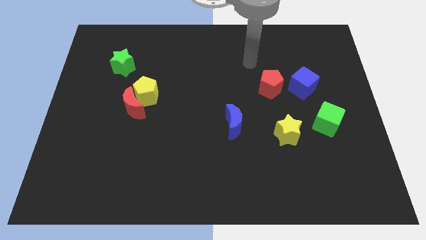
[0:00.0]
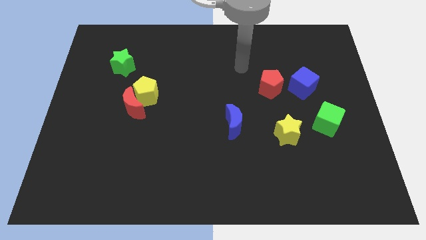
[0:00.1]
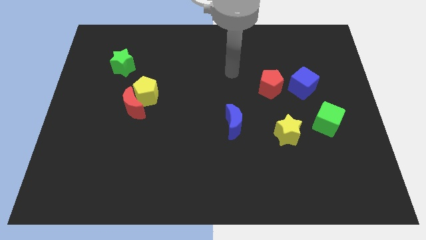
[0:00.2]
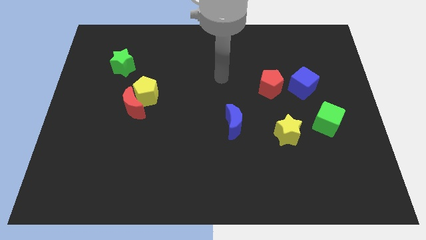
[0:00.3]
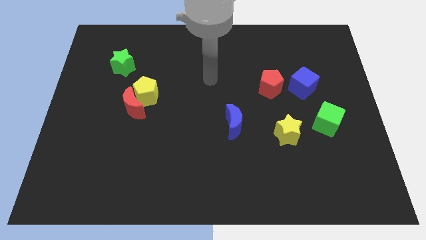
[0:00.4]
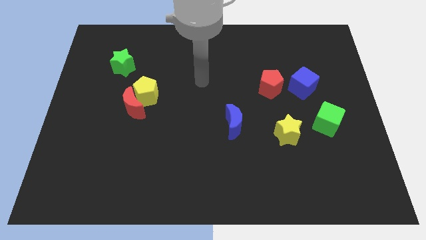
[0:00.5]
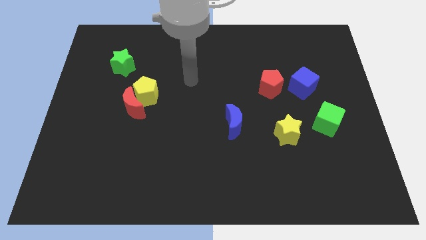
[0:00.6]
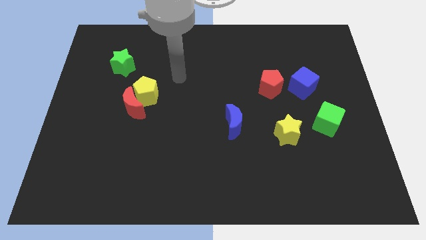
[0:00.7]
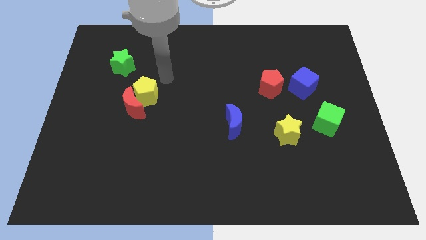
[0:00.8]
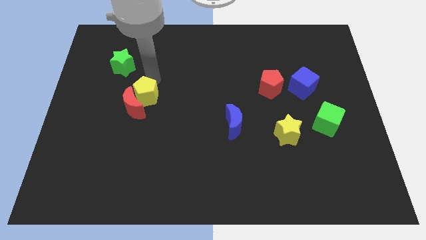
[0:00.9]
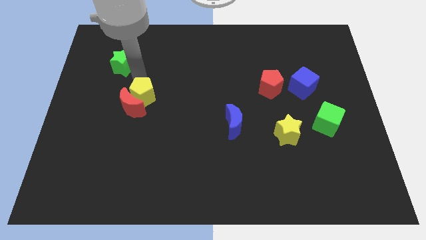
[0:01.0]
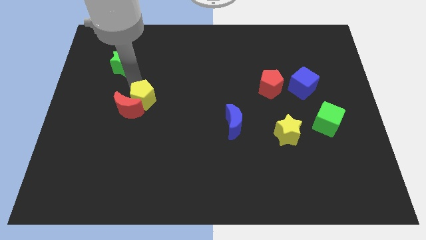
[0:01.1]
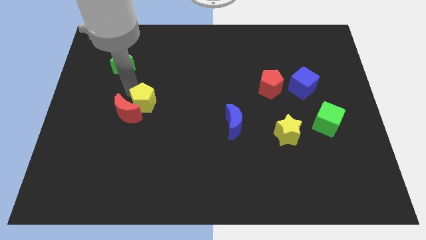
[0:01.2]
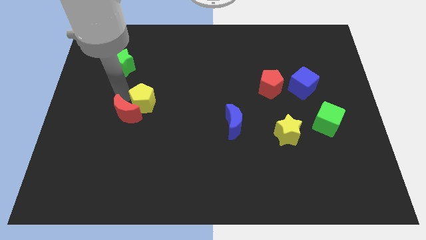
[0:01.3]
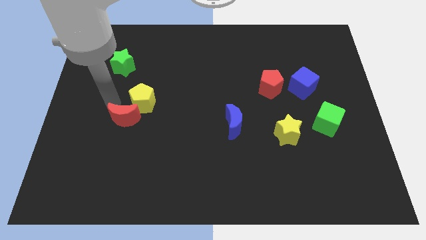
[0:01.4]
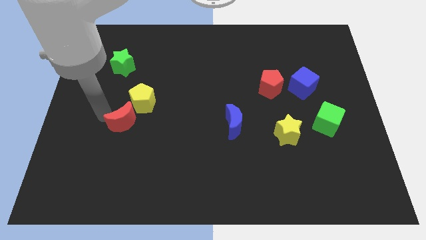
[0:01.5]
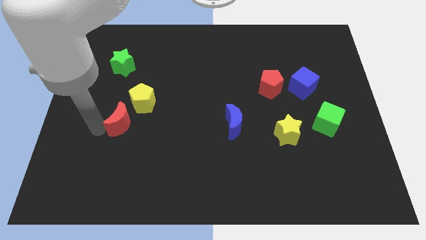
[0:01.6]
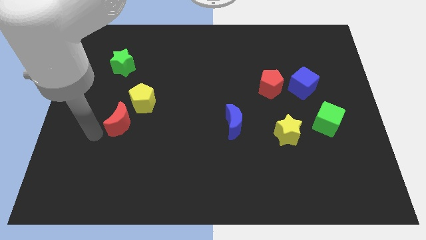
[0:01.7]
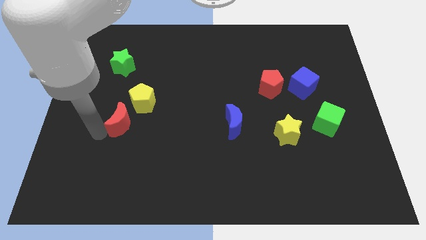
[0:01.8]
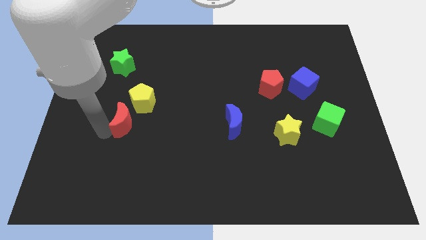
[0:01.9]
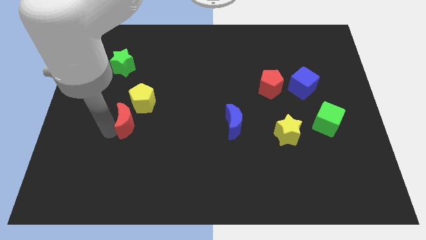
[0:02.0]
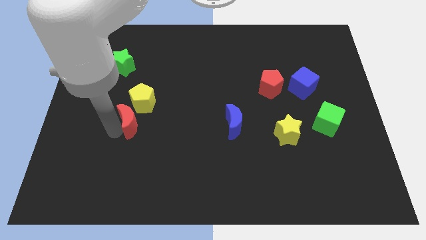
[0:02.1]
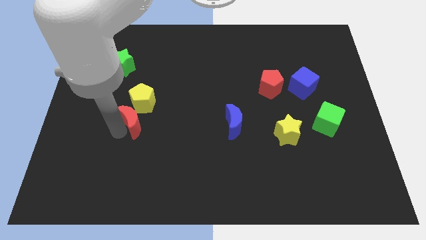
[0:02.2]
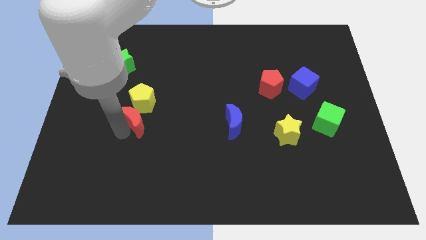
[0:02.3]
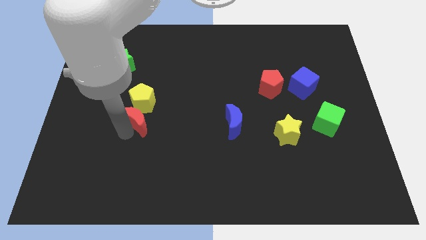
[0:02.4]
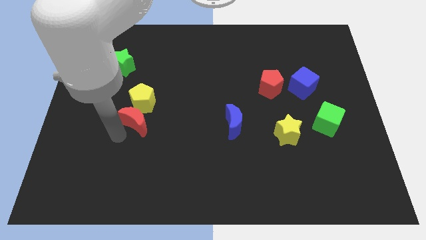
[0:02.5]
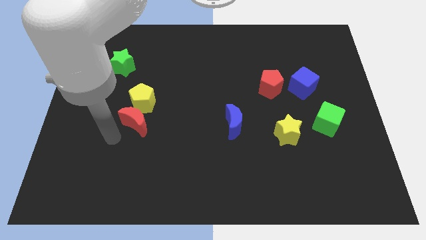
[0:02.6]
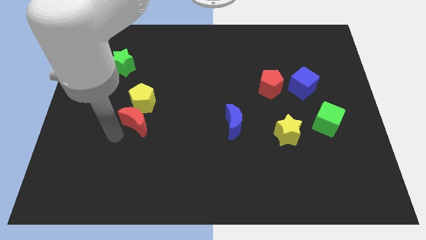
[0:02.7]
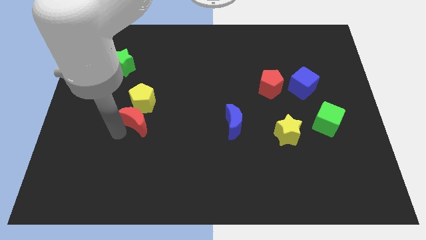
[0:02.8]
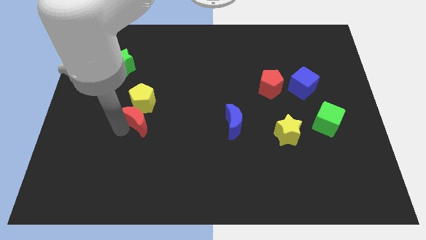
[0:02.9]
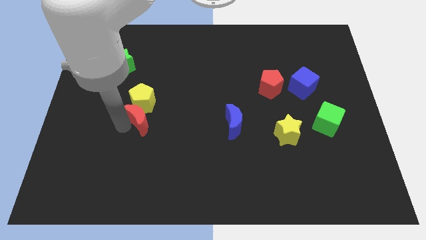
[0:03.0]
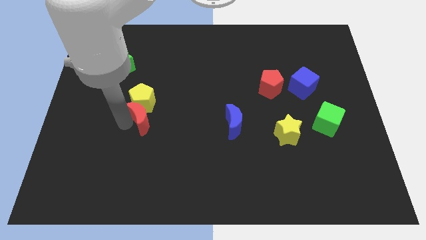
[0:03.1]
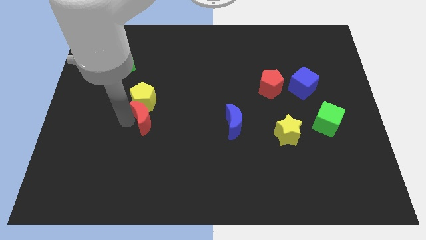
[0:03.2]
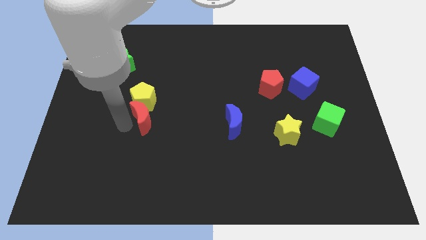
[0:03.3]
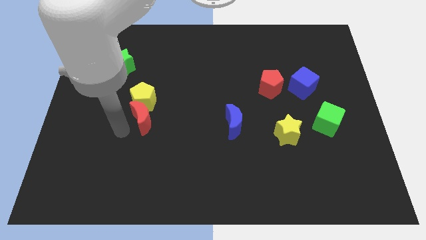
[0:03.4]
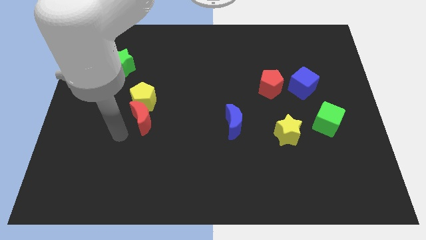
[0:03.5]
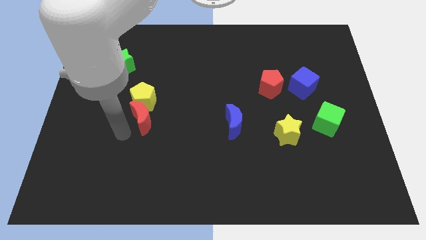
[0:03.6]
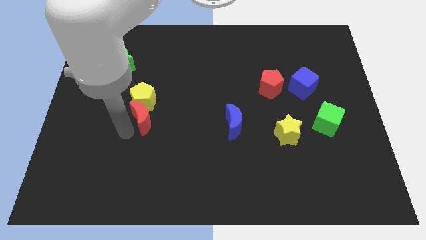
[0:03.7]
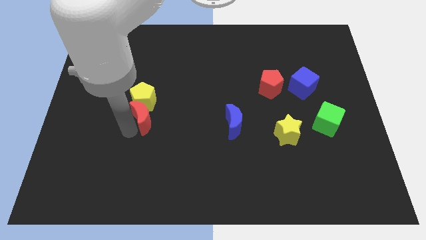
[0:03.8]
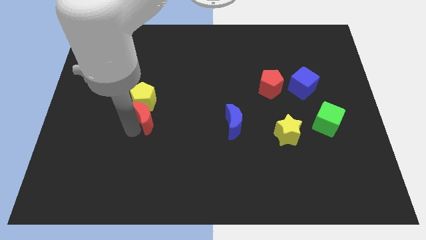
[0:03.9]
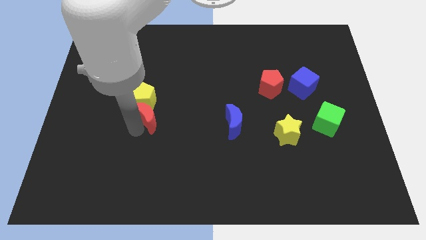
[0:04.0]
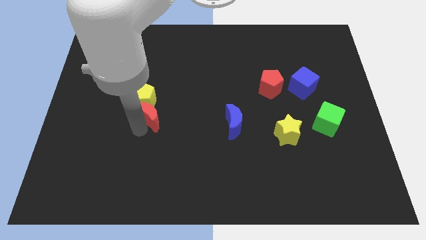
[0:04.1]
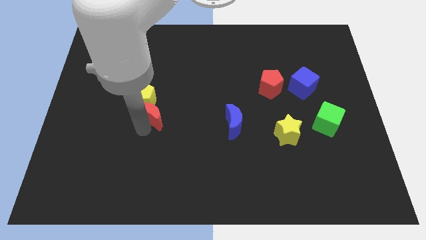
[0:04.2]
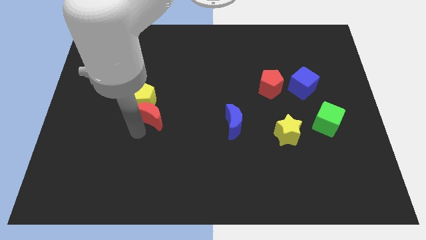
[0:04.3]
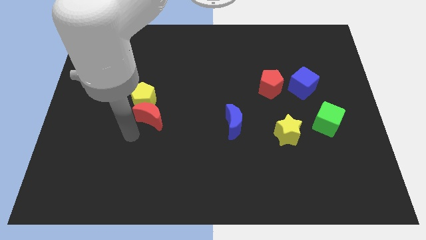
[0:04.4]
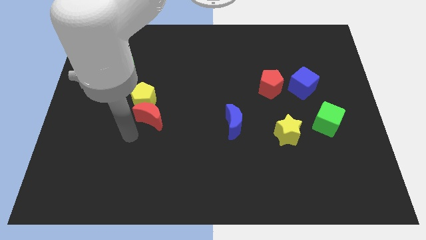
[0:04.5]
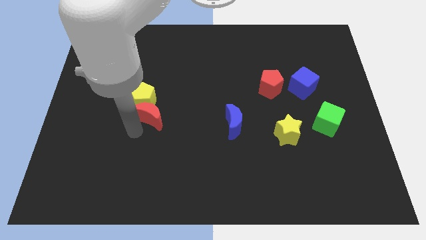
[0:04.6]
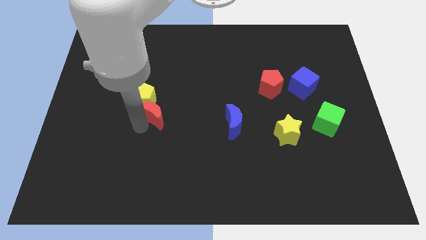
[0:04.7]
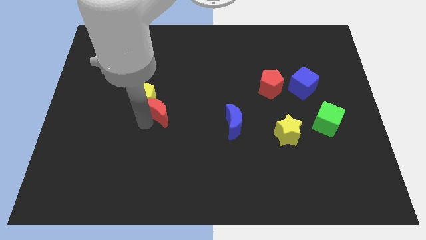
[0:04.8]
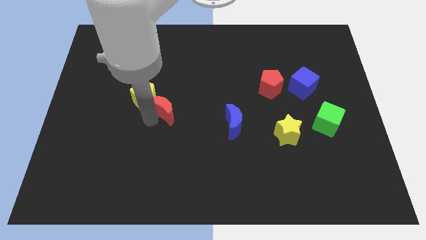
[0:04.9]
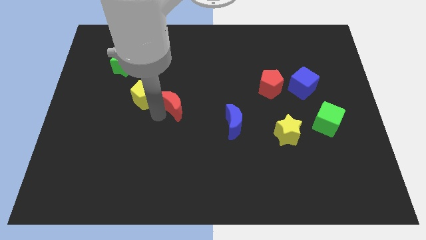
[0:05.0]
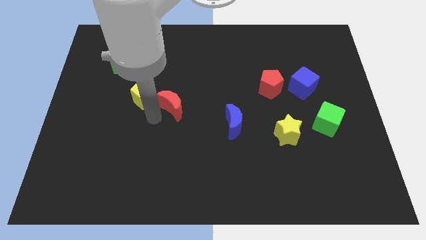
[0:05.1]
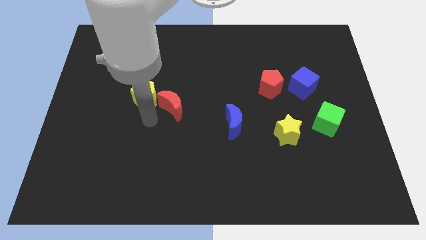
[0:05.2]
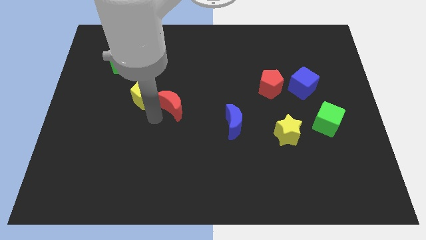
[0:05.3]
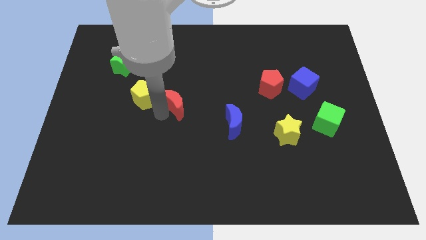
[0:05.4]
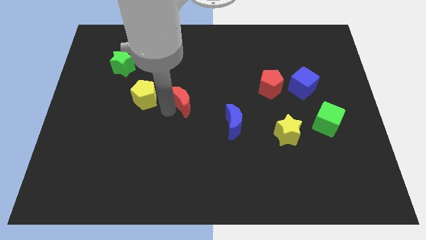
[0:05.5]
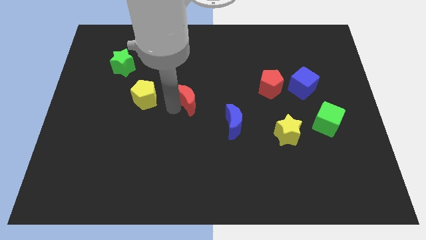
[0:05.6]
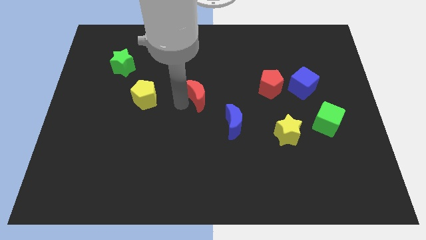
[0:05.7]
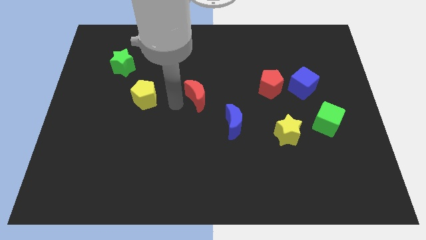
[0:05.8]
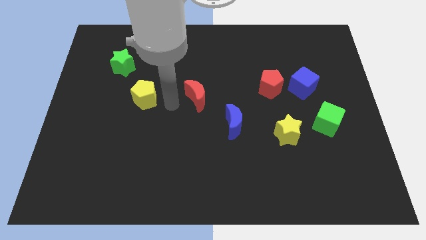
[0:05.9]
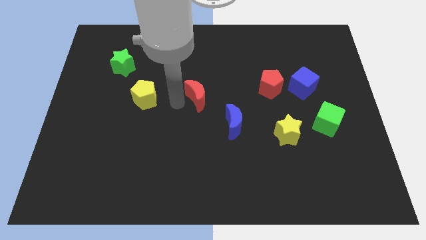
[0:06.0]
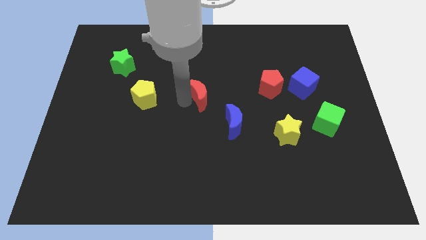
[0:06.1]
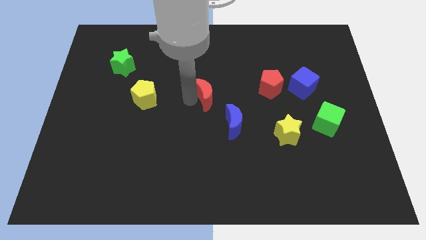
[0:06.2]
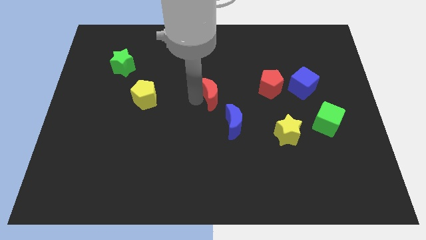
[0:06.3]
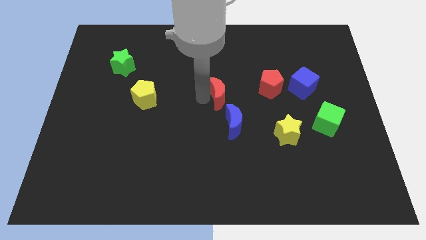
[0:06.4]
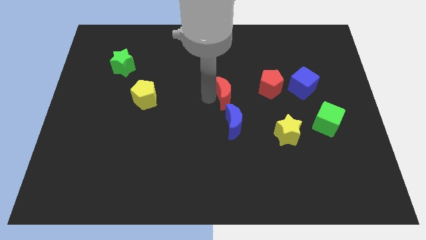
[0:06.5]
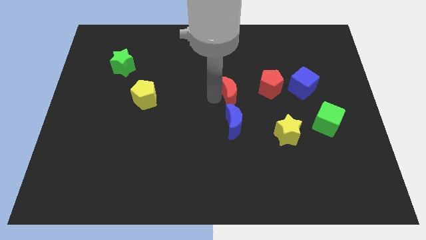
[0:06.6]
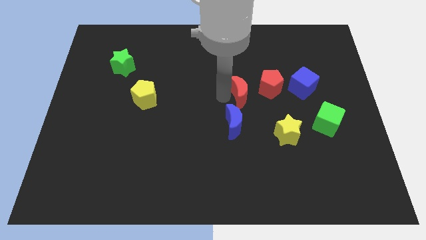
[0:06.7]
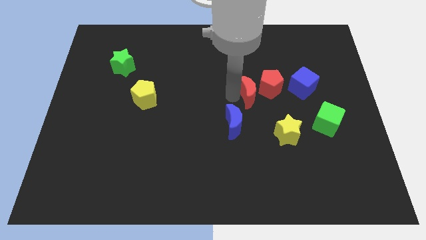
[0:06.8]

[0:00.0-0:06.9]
slide the red moon towards the red pentagon

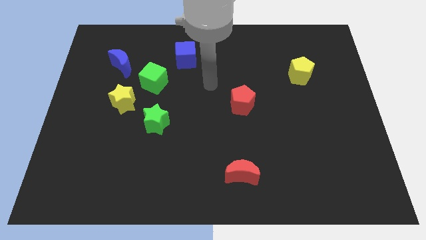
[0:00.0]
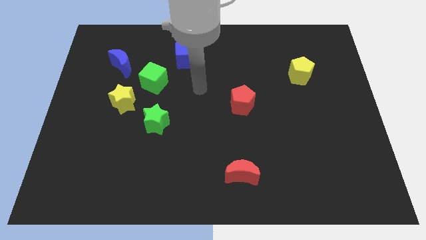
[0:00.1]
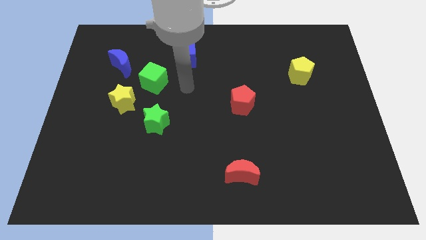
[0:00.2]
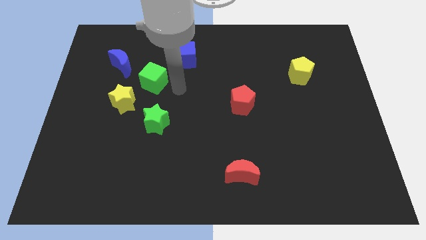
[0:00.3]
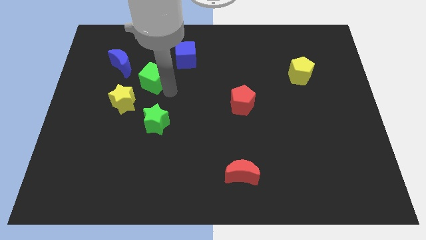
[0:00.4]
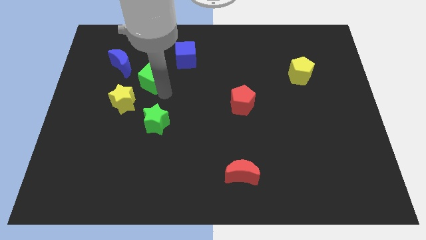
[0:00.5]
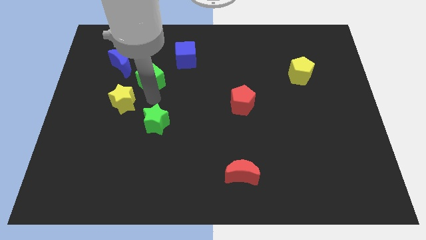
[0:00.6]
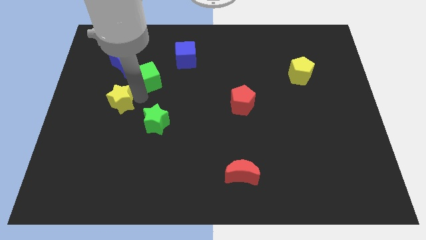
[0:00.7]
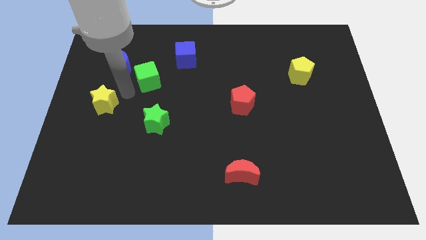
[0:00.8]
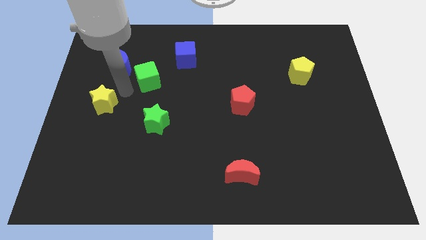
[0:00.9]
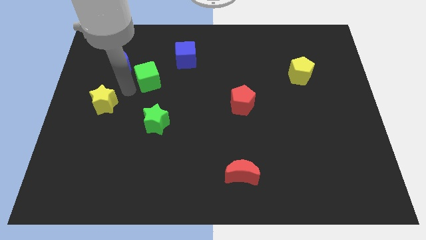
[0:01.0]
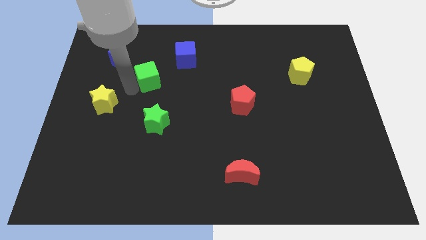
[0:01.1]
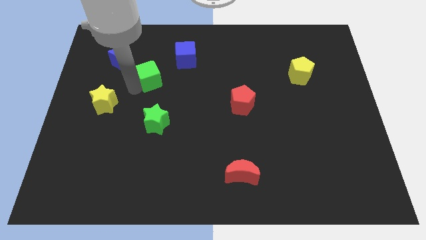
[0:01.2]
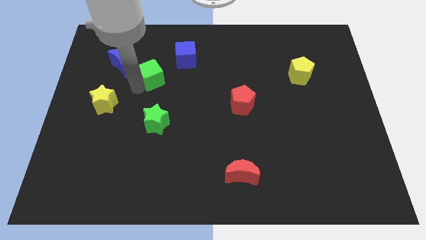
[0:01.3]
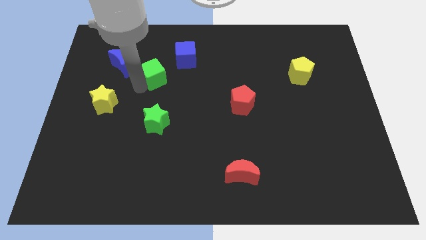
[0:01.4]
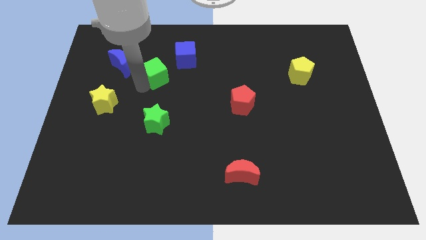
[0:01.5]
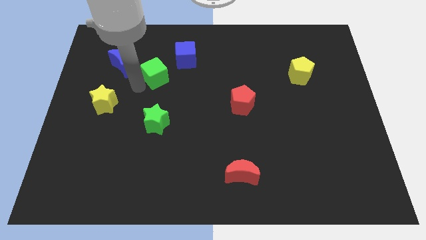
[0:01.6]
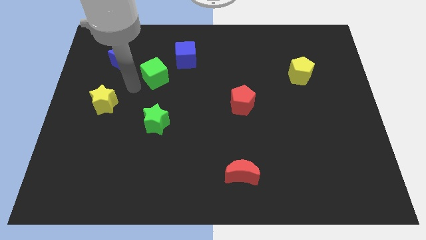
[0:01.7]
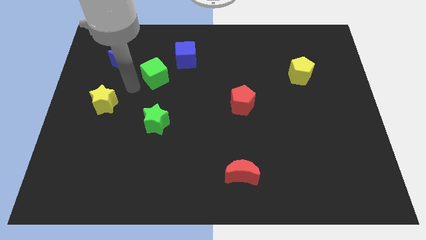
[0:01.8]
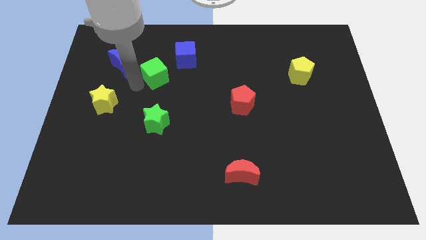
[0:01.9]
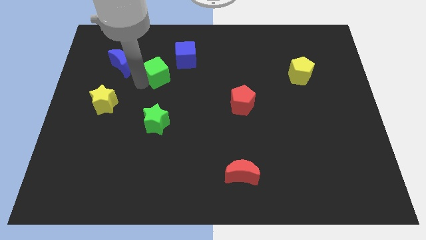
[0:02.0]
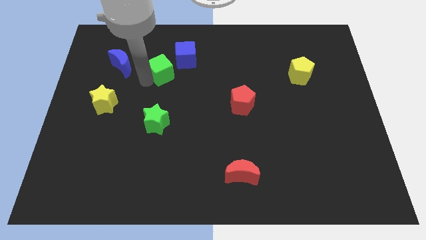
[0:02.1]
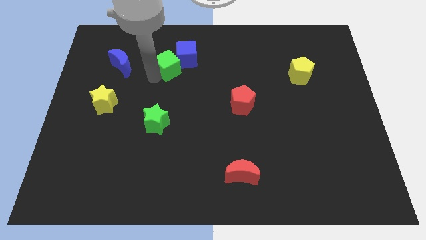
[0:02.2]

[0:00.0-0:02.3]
put the green cube towards the blue cube
